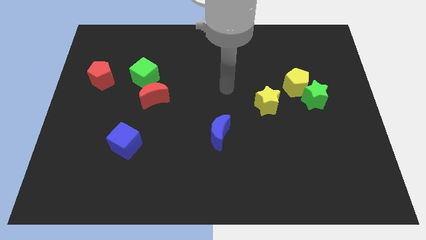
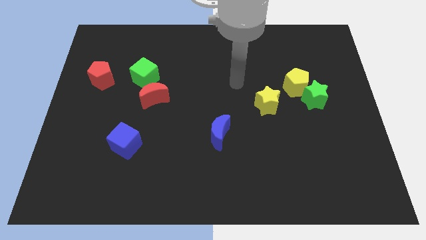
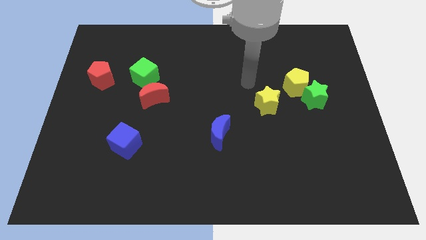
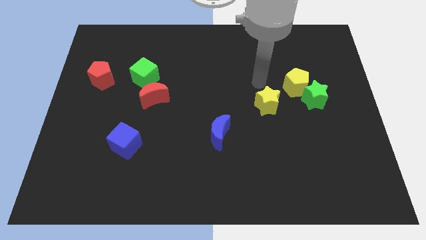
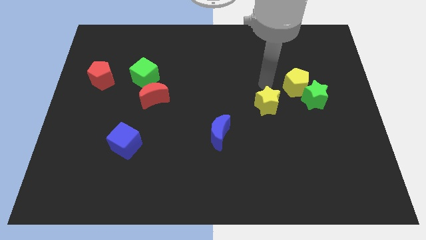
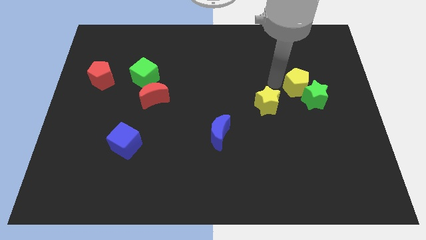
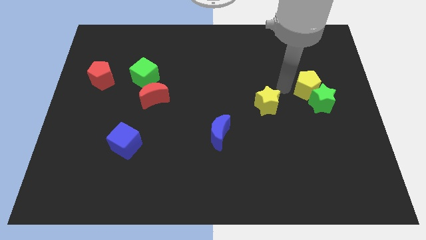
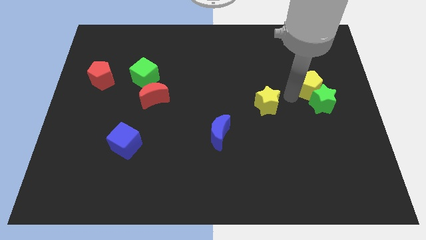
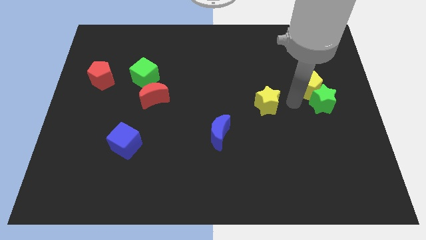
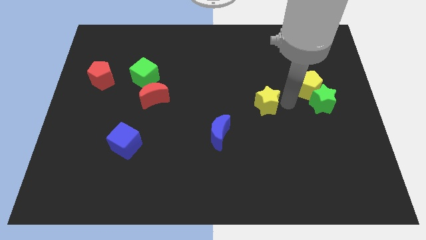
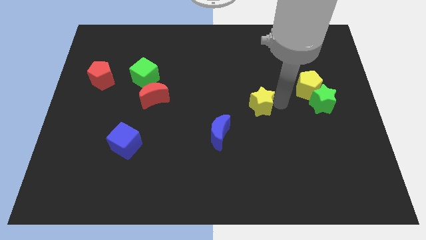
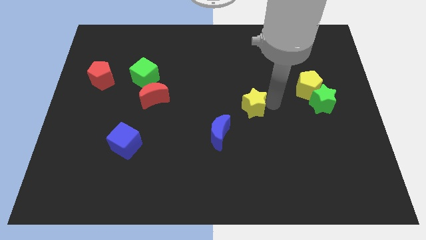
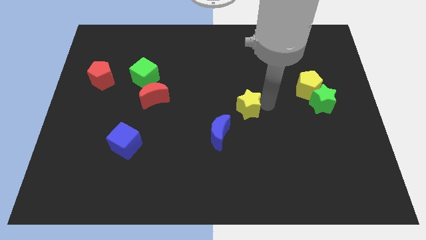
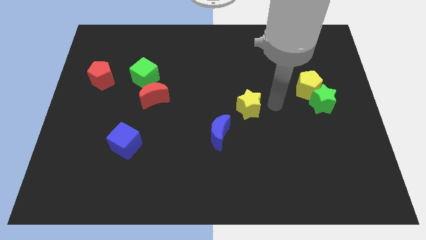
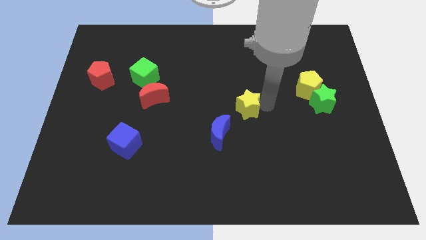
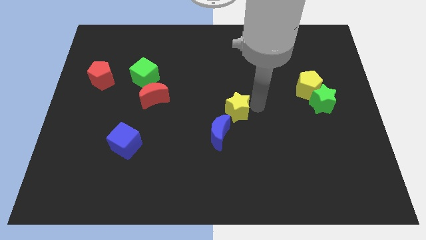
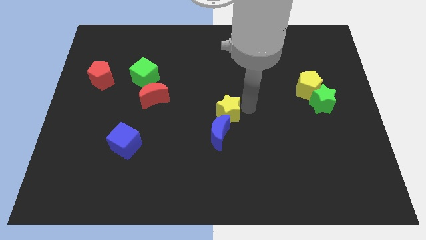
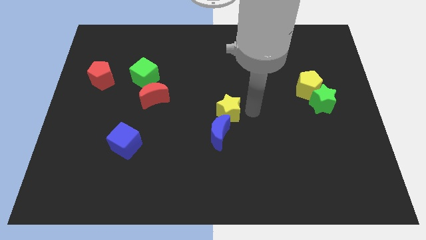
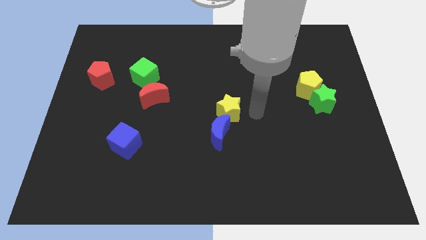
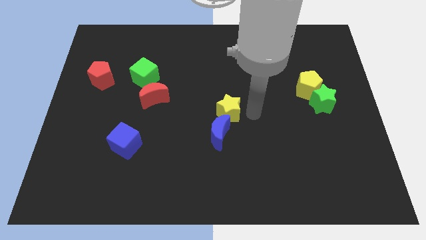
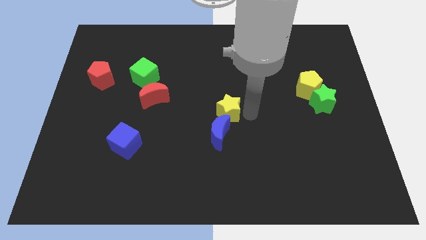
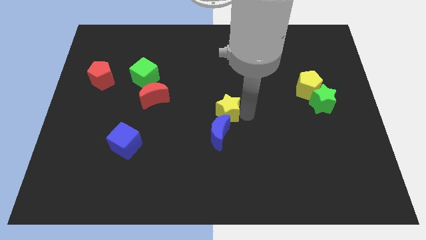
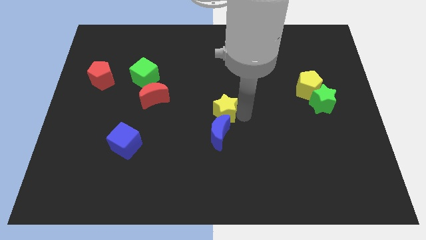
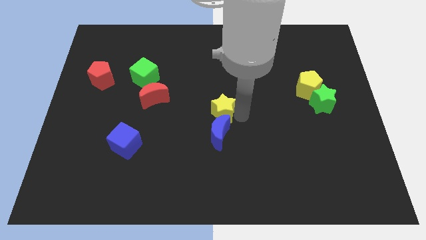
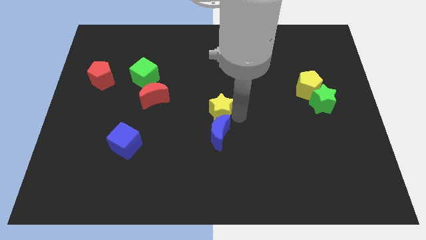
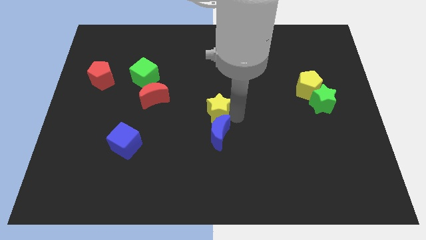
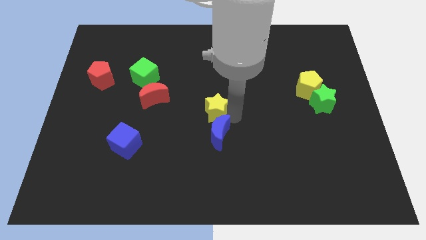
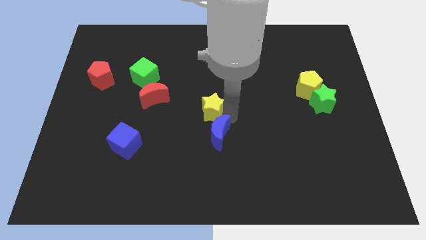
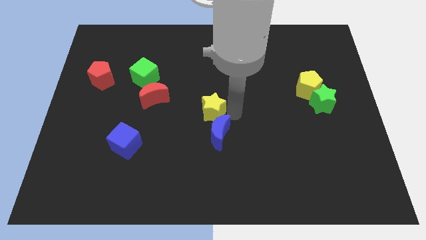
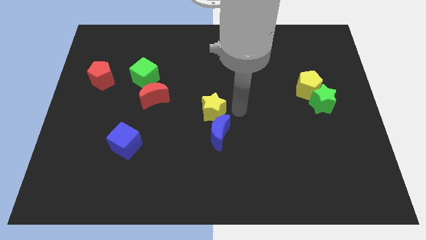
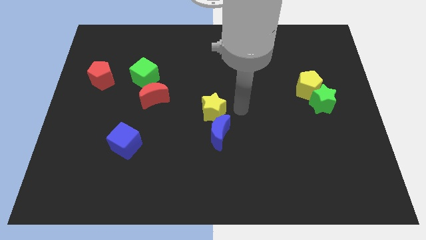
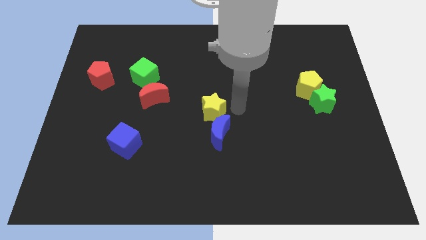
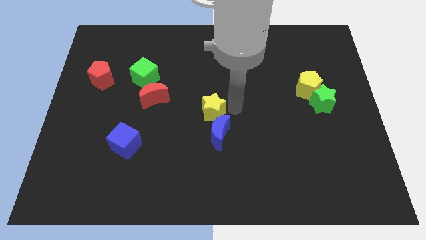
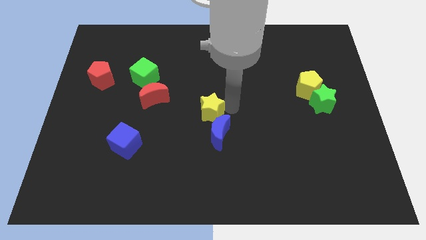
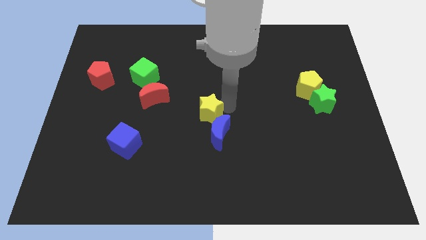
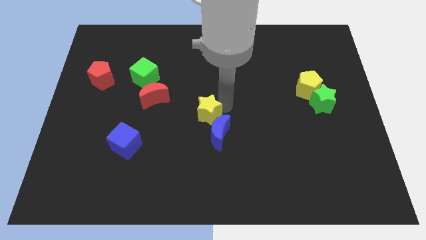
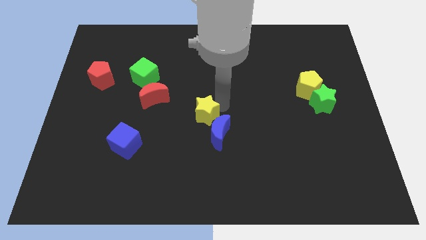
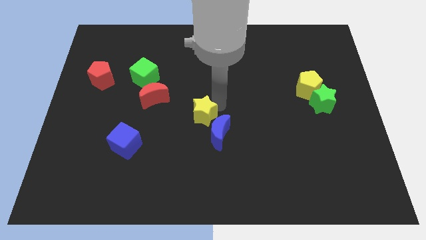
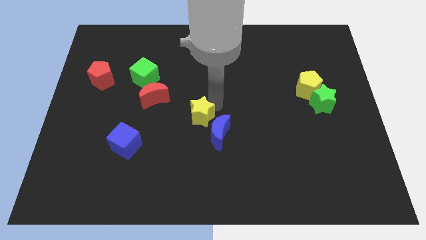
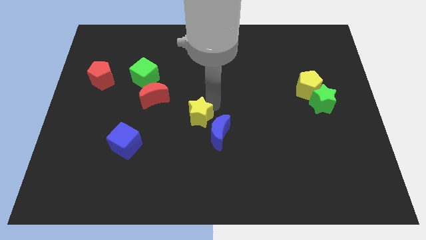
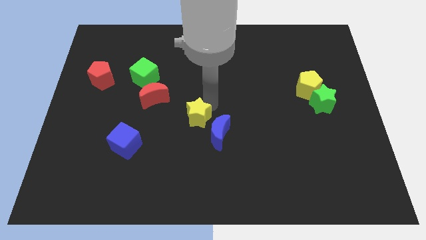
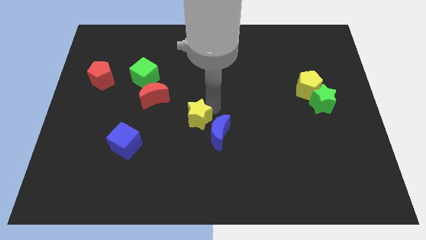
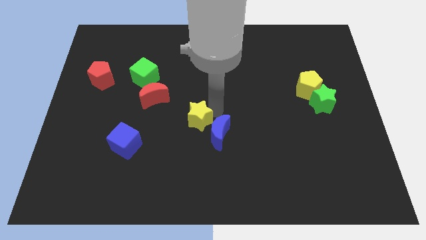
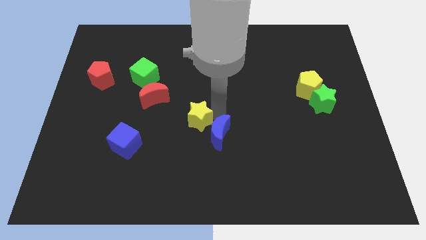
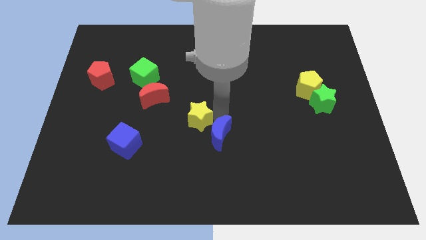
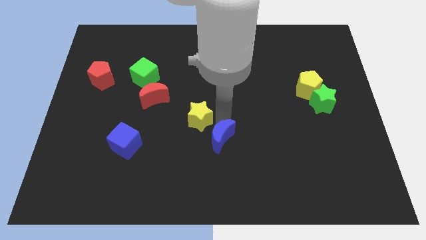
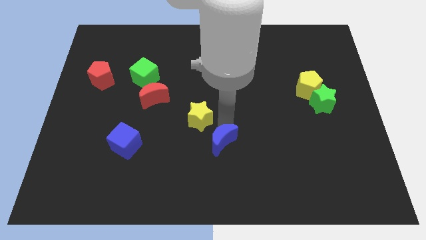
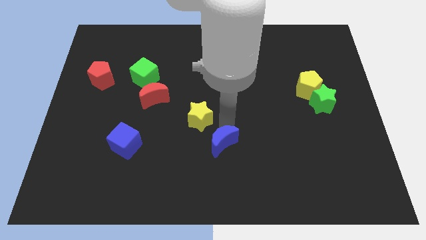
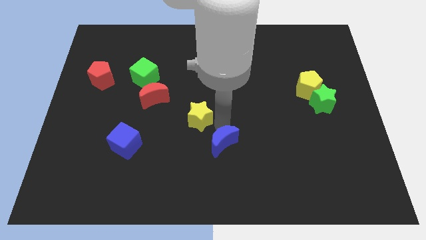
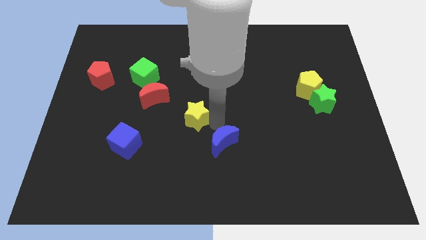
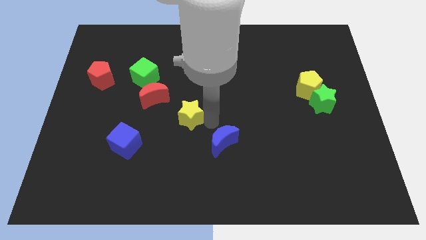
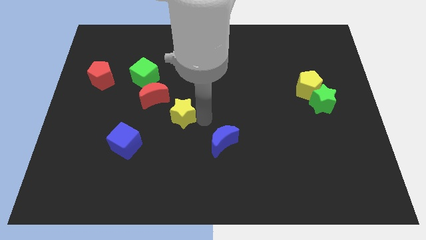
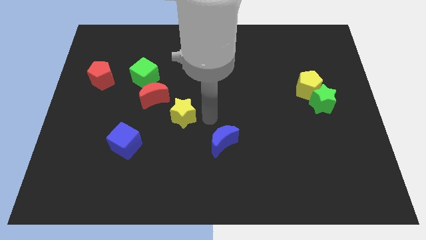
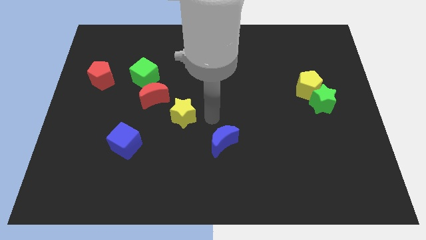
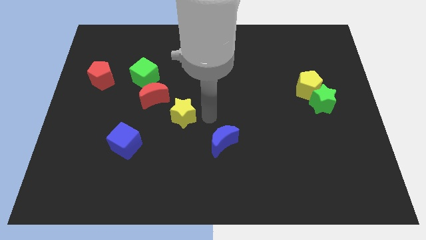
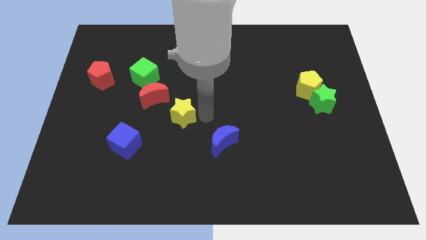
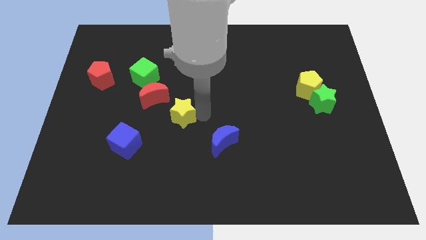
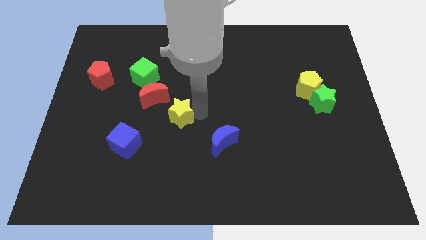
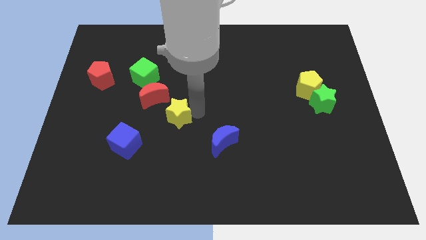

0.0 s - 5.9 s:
move the yellow star to the left

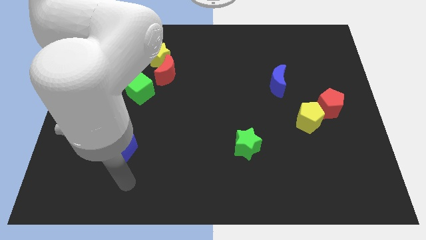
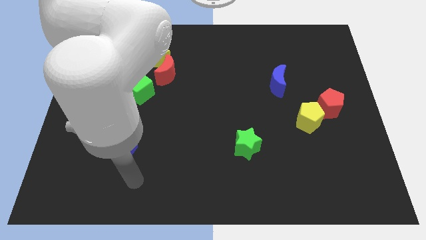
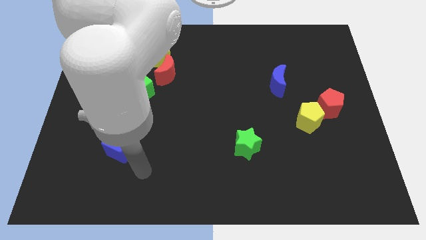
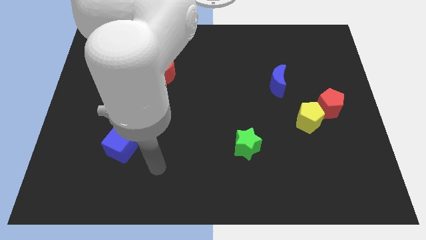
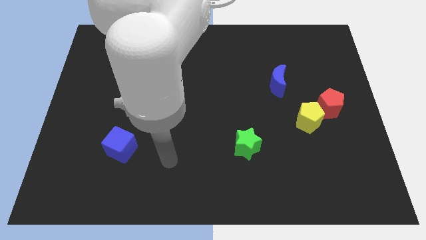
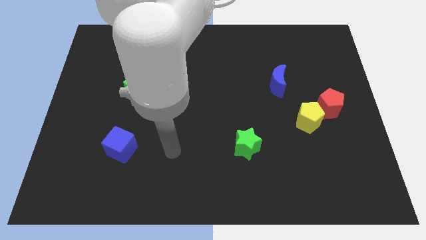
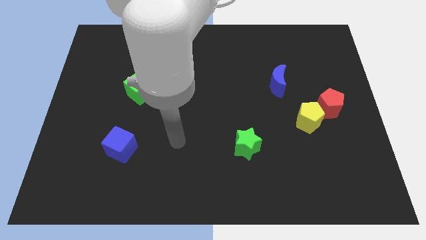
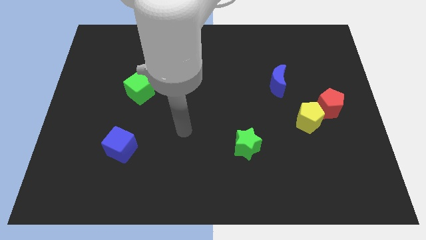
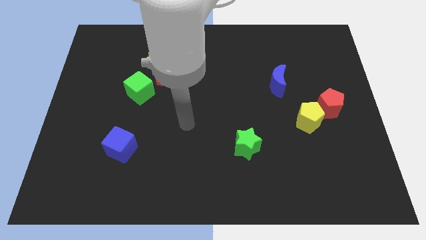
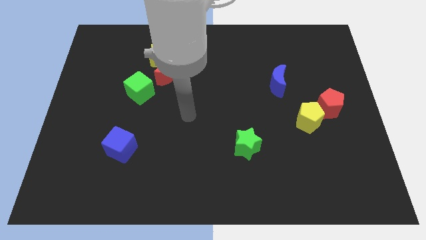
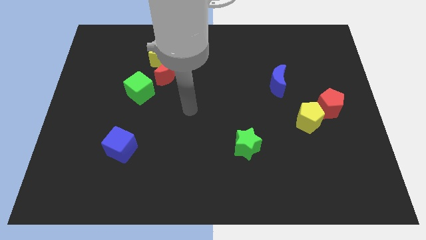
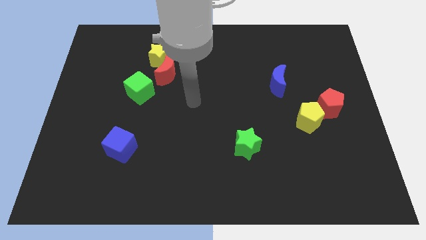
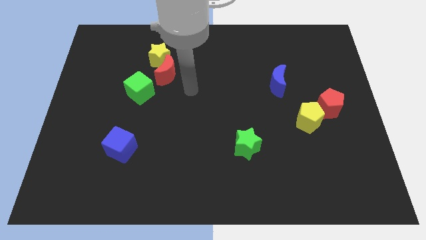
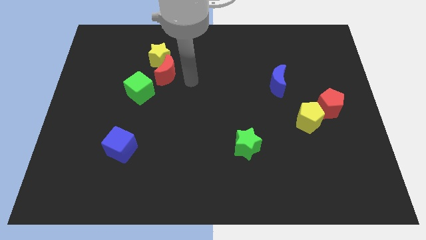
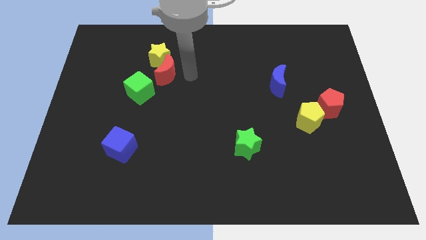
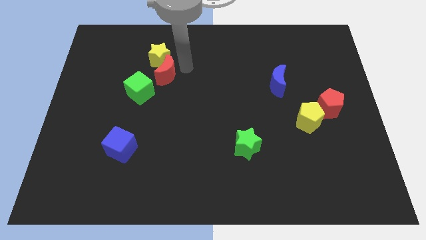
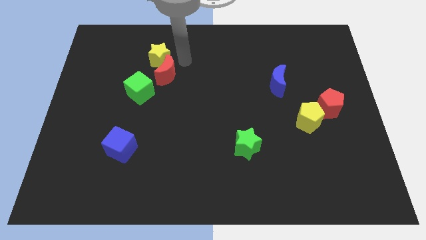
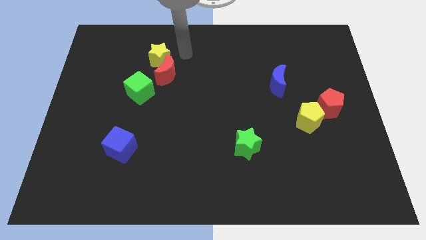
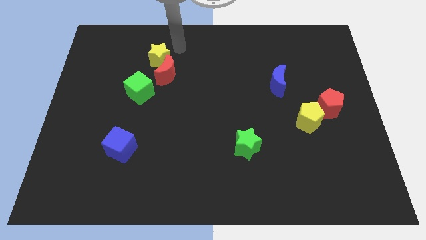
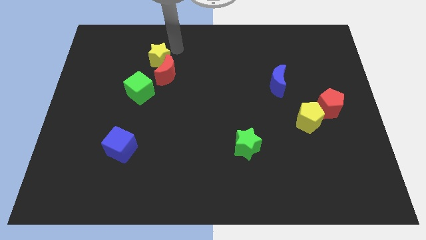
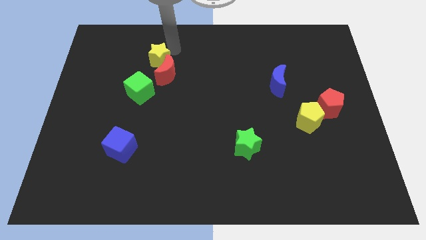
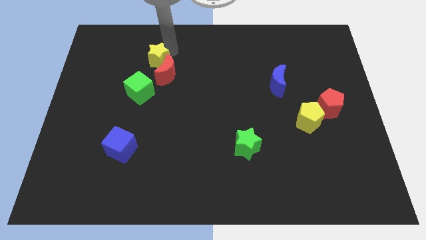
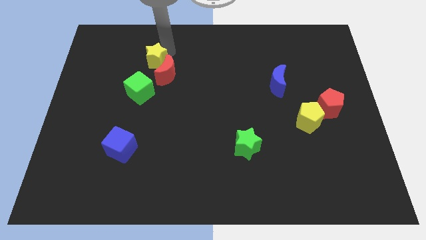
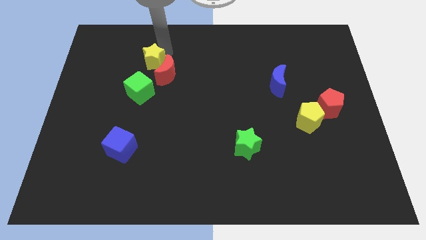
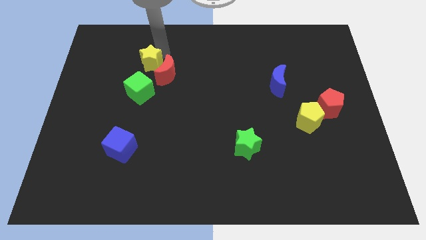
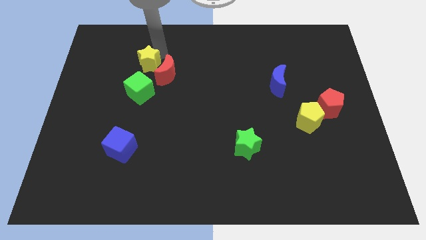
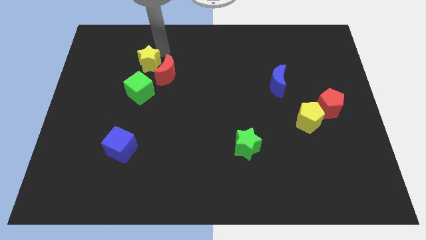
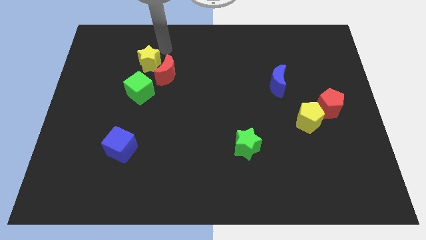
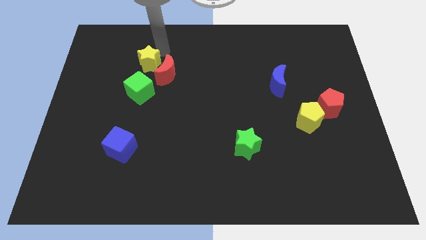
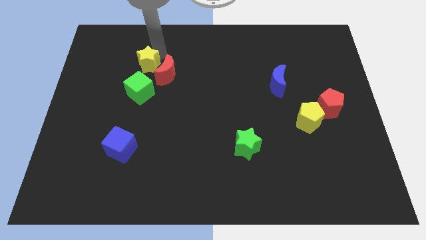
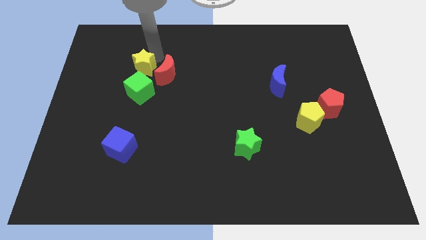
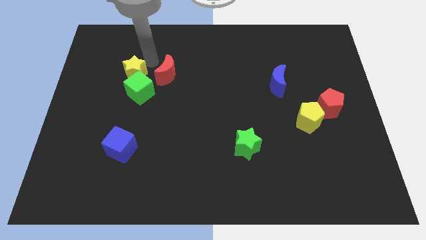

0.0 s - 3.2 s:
move the yellow star a little bit diagonally downwards and left
